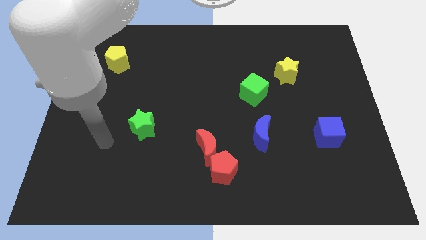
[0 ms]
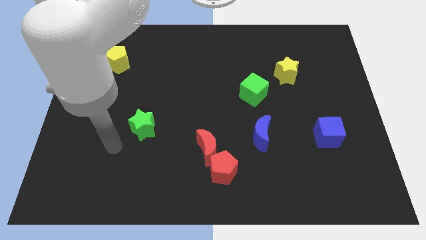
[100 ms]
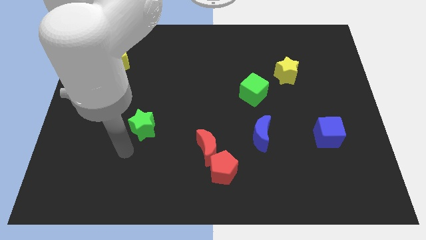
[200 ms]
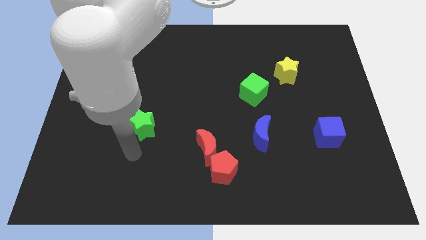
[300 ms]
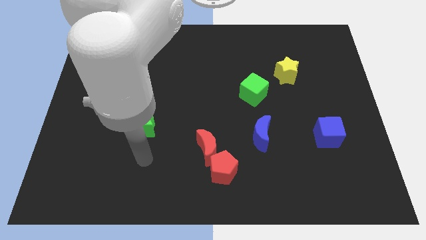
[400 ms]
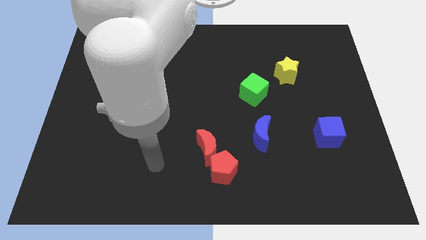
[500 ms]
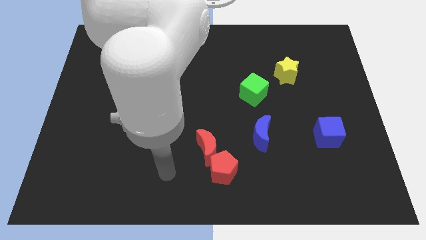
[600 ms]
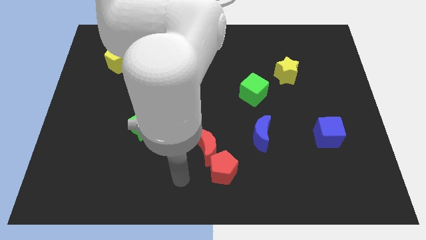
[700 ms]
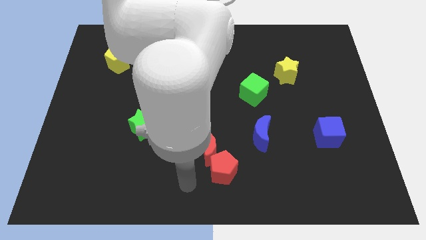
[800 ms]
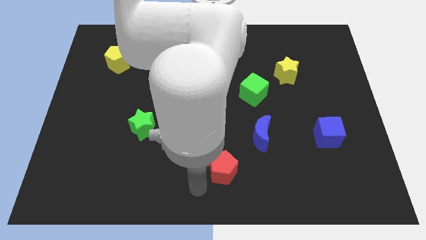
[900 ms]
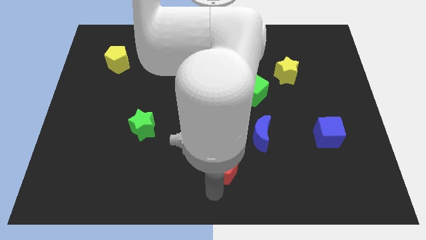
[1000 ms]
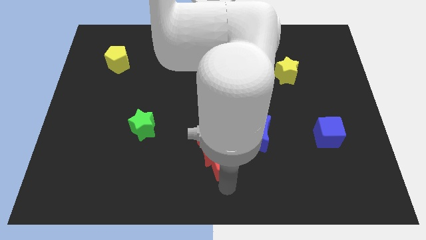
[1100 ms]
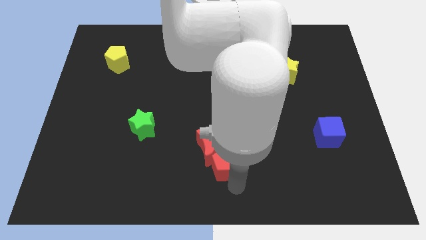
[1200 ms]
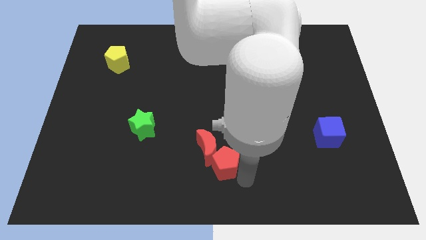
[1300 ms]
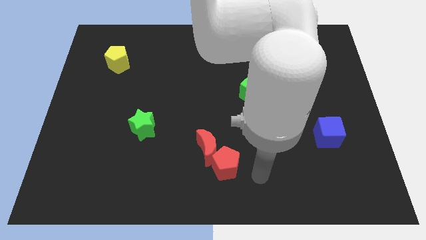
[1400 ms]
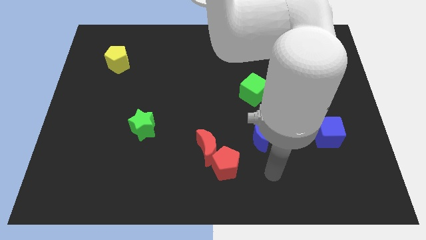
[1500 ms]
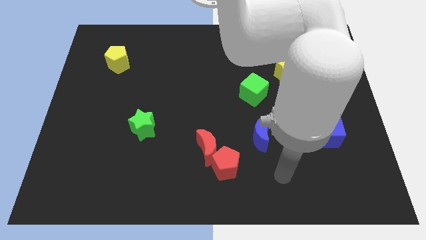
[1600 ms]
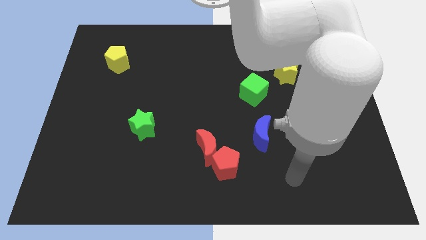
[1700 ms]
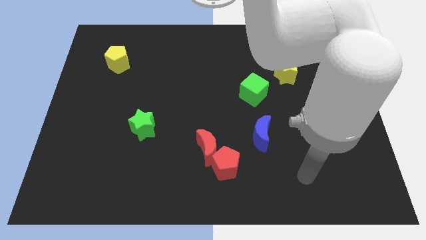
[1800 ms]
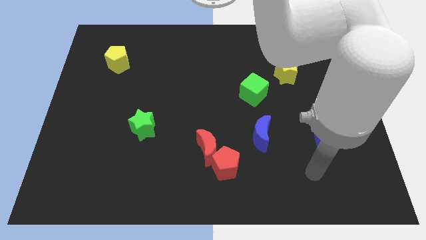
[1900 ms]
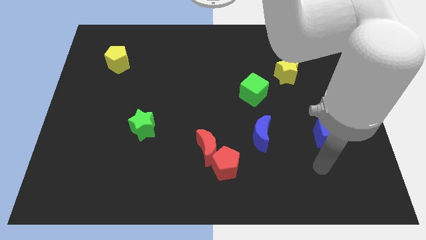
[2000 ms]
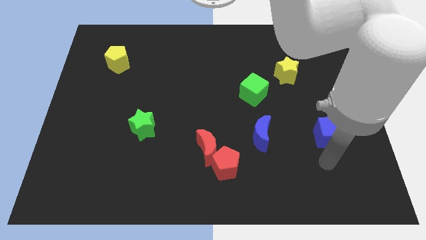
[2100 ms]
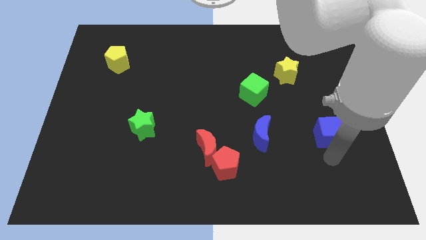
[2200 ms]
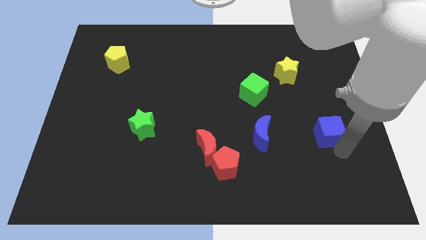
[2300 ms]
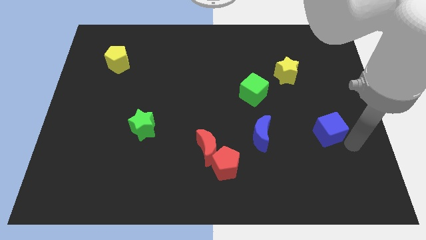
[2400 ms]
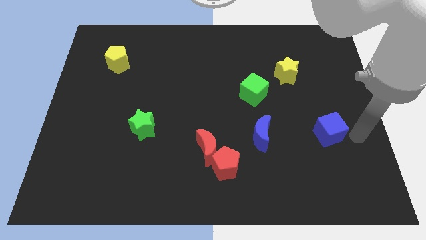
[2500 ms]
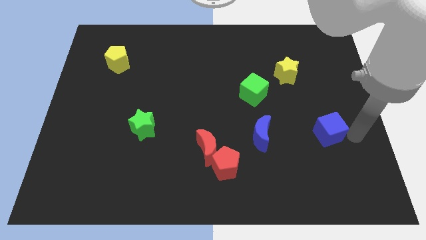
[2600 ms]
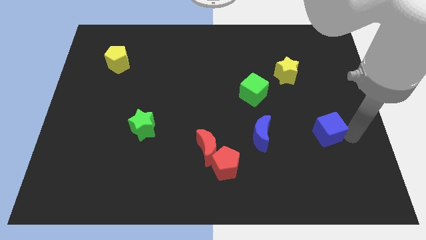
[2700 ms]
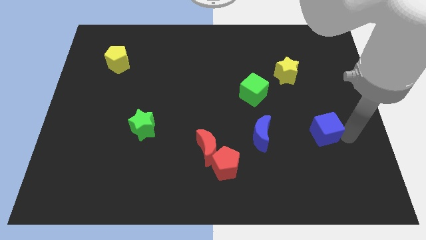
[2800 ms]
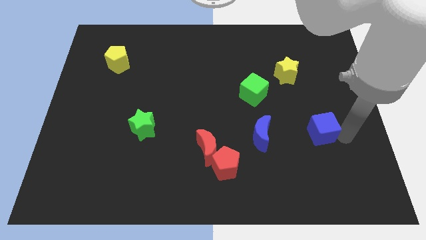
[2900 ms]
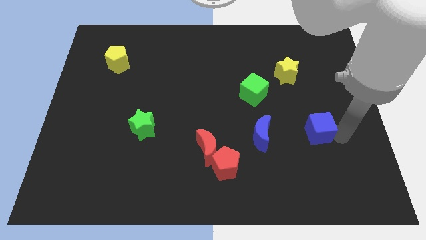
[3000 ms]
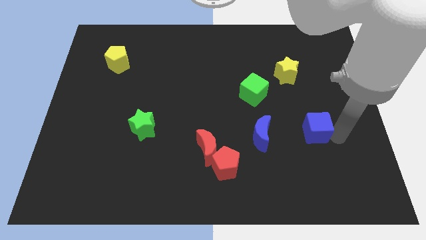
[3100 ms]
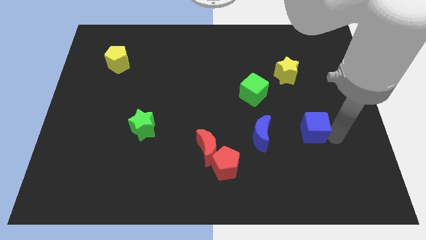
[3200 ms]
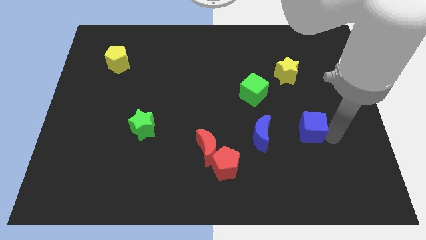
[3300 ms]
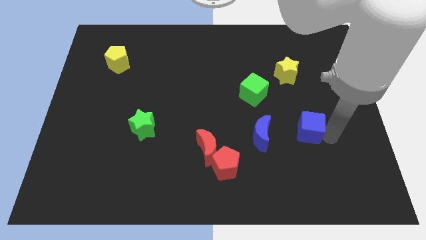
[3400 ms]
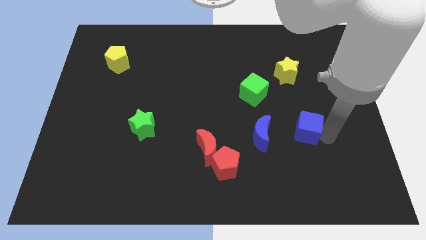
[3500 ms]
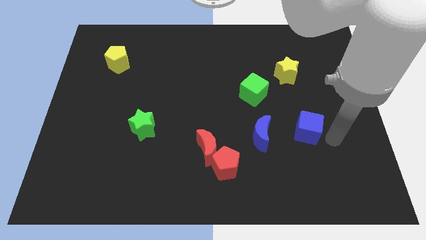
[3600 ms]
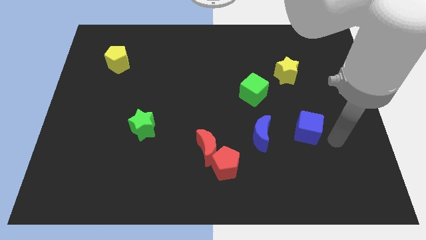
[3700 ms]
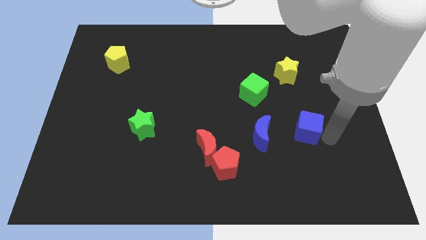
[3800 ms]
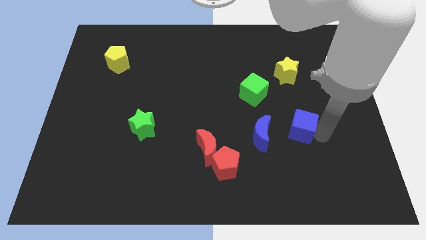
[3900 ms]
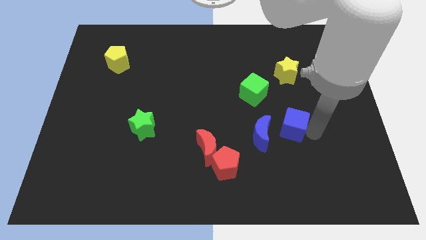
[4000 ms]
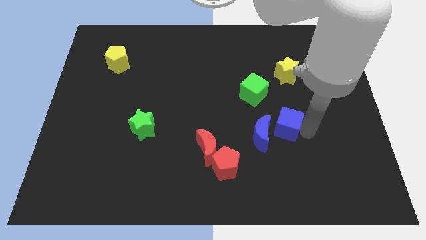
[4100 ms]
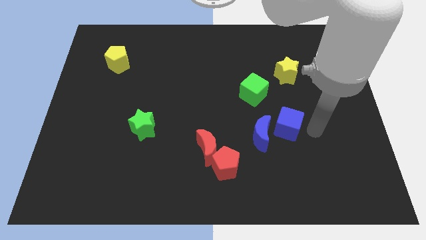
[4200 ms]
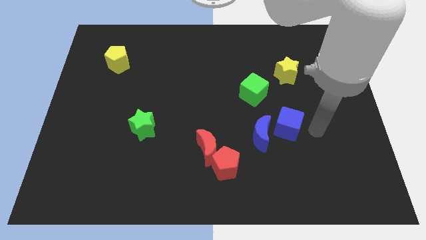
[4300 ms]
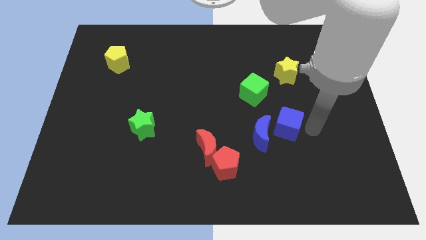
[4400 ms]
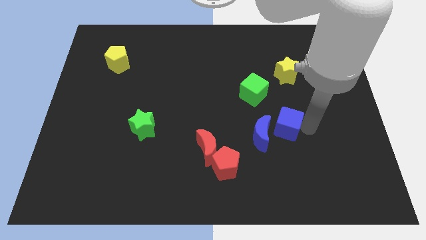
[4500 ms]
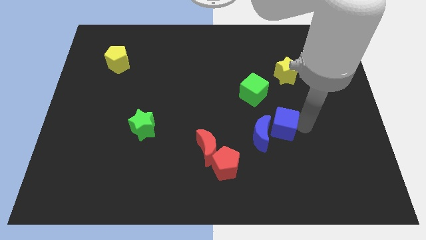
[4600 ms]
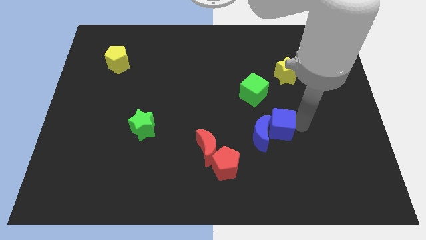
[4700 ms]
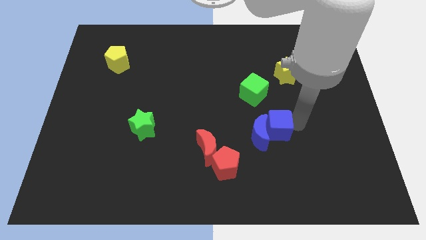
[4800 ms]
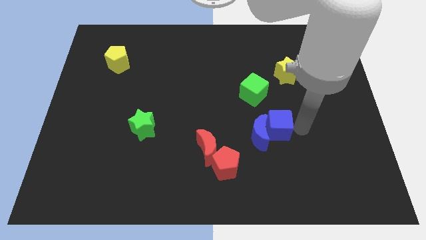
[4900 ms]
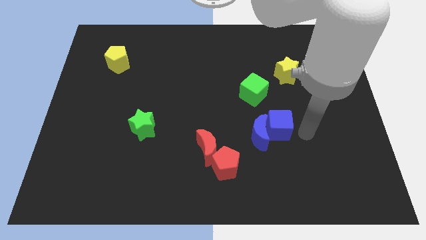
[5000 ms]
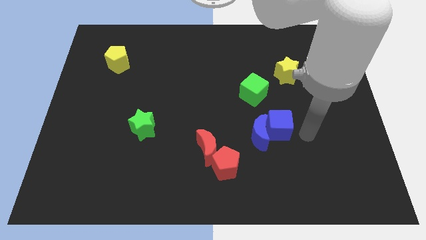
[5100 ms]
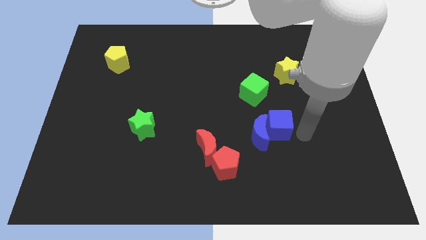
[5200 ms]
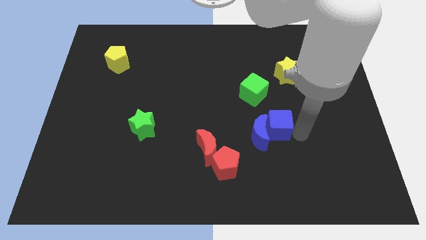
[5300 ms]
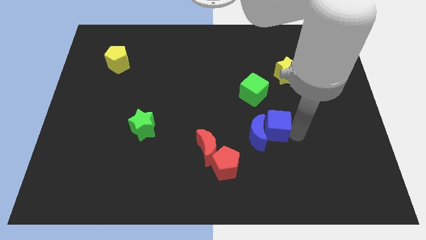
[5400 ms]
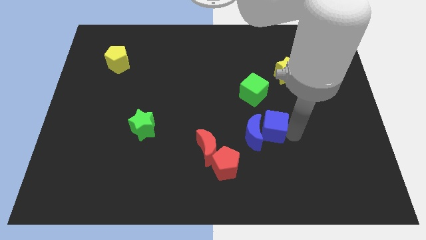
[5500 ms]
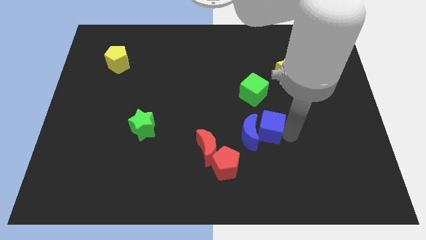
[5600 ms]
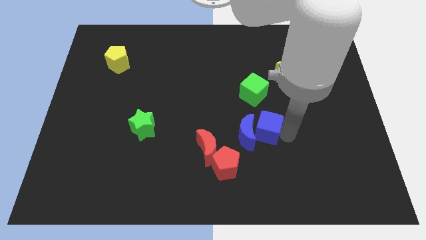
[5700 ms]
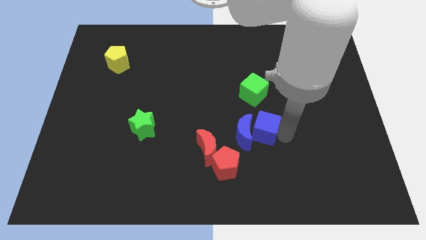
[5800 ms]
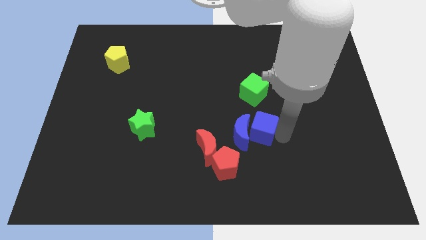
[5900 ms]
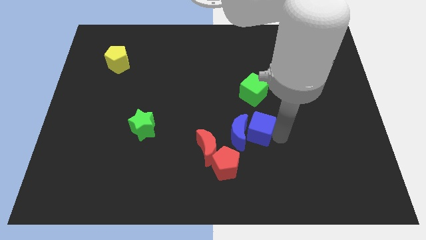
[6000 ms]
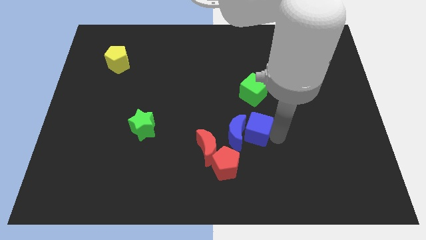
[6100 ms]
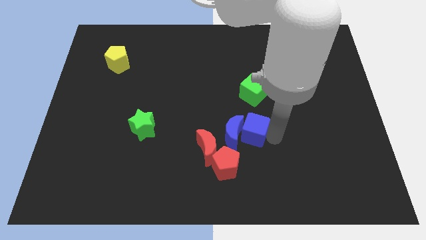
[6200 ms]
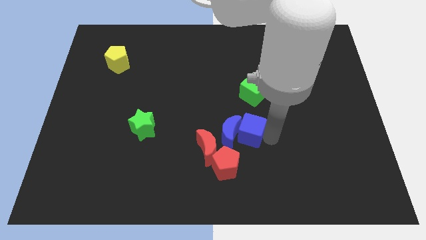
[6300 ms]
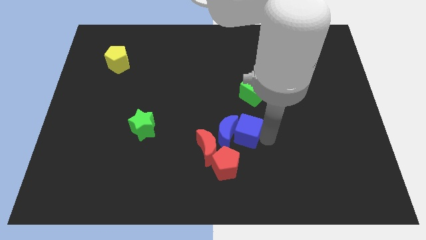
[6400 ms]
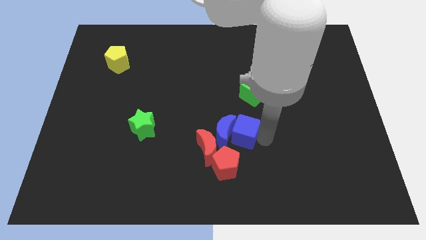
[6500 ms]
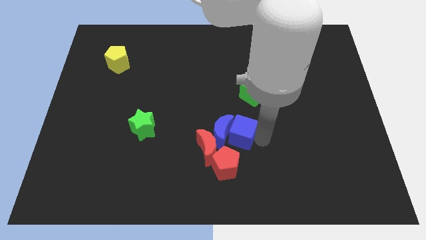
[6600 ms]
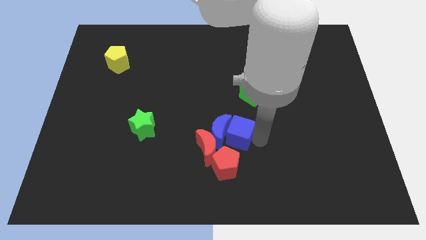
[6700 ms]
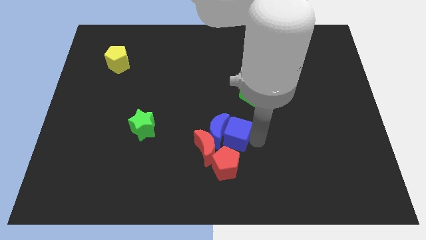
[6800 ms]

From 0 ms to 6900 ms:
move the blue cube left

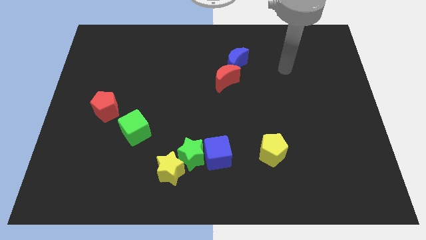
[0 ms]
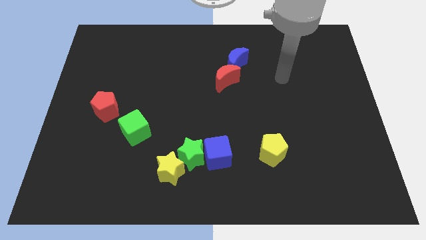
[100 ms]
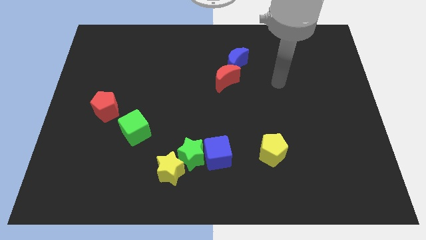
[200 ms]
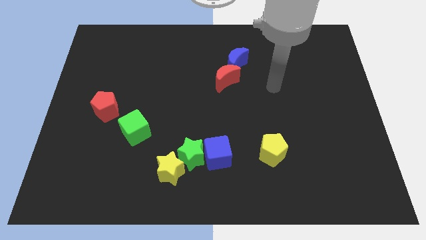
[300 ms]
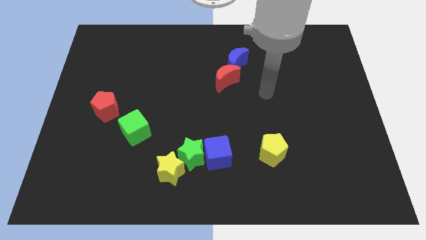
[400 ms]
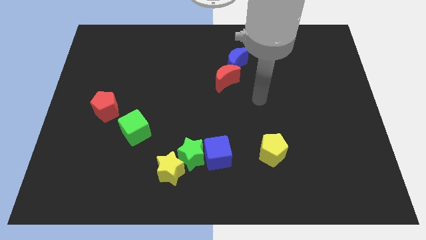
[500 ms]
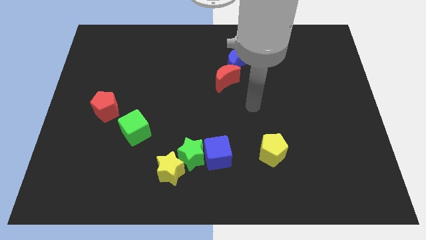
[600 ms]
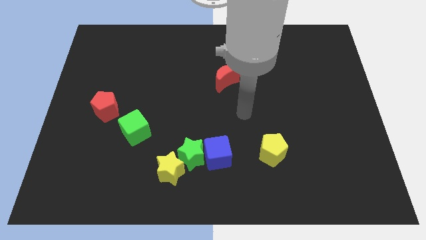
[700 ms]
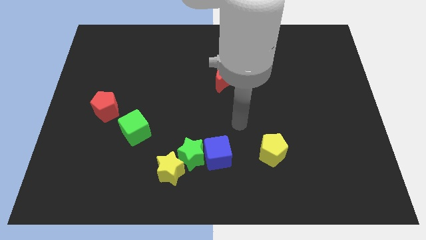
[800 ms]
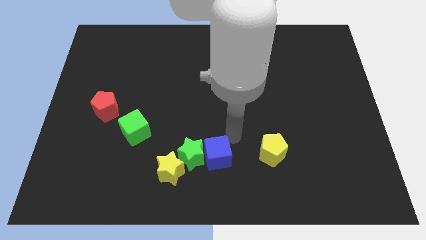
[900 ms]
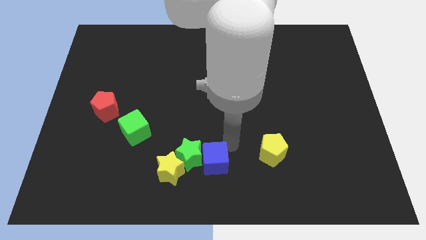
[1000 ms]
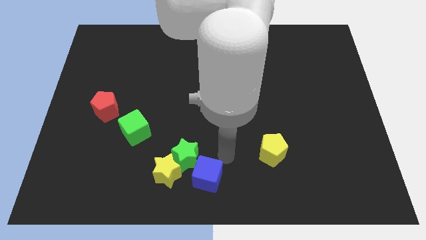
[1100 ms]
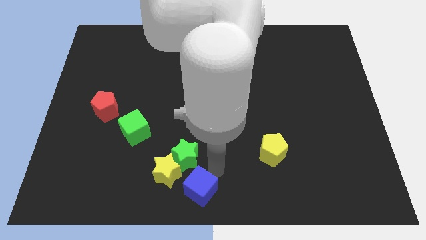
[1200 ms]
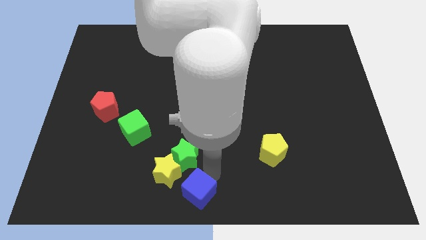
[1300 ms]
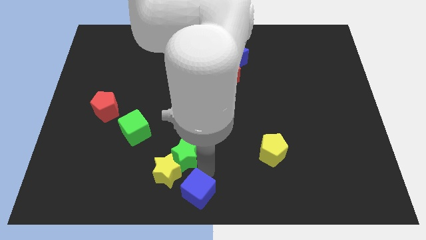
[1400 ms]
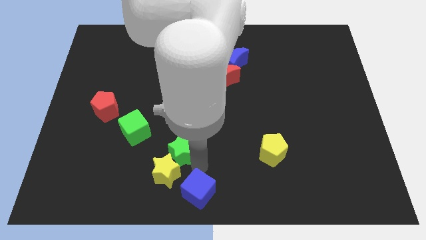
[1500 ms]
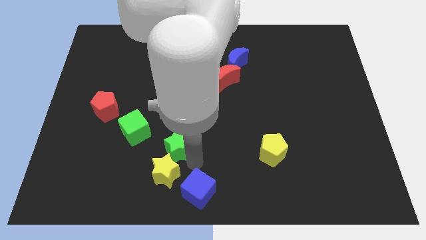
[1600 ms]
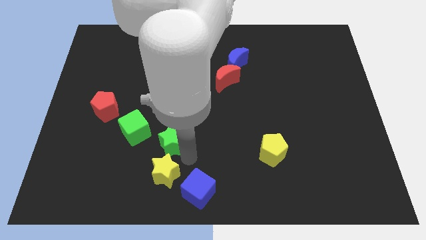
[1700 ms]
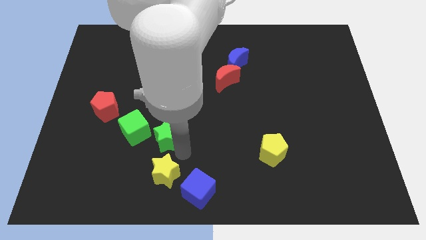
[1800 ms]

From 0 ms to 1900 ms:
slightly push the green star up and to the left
